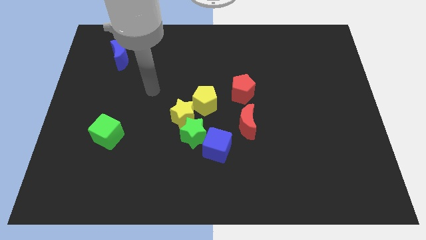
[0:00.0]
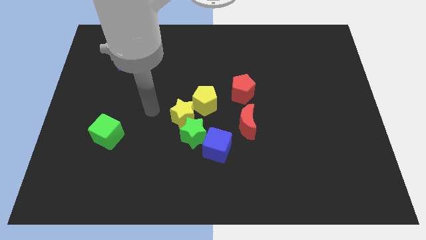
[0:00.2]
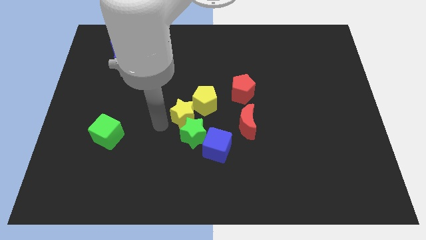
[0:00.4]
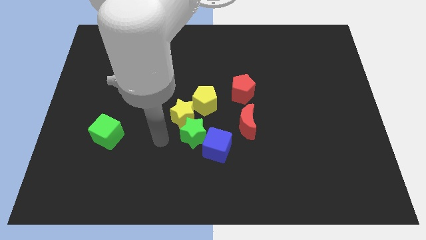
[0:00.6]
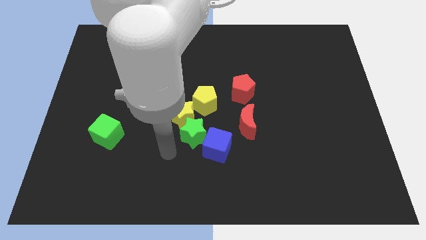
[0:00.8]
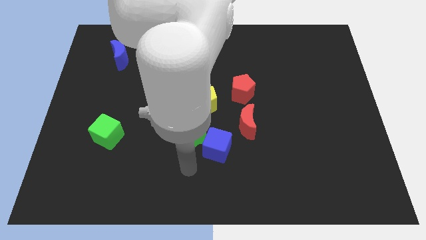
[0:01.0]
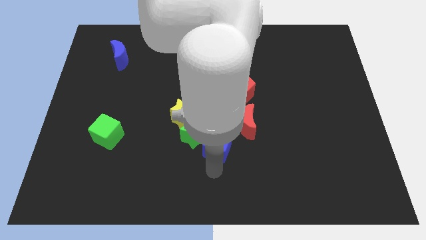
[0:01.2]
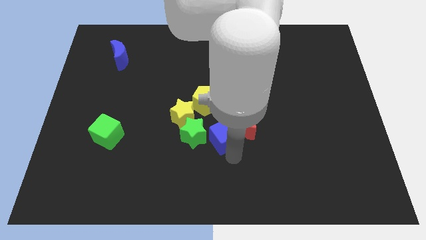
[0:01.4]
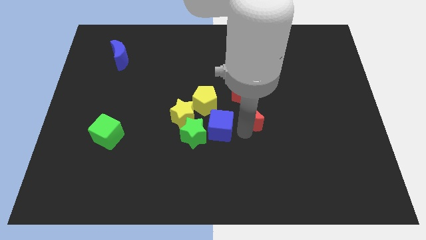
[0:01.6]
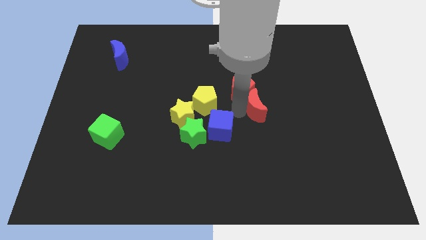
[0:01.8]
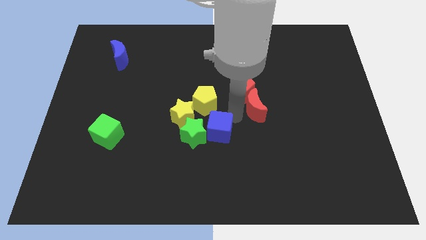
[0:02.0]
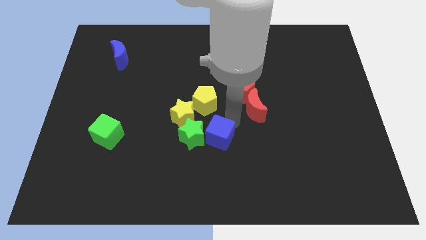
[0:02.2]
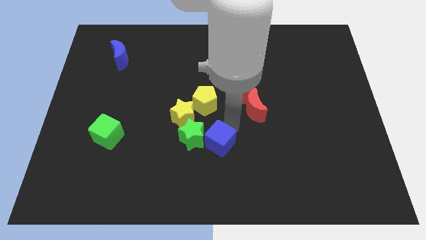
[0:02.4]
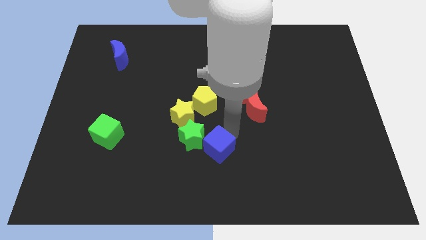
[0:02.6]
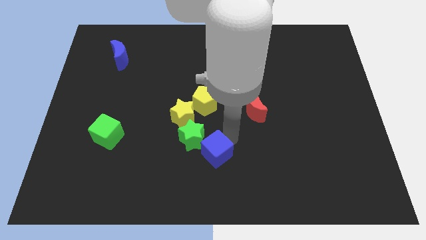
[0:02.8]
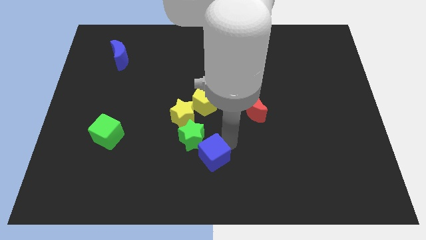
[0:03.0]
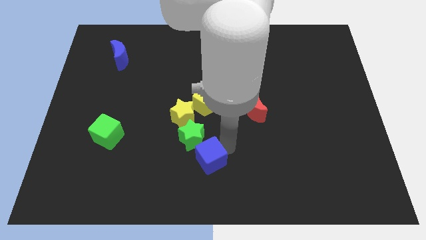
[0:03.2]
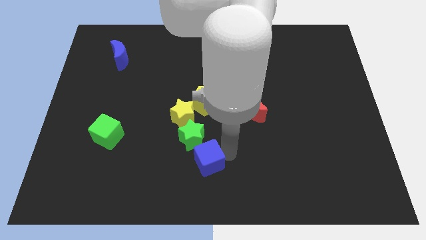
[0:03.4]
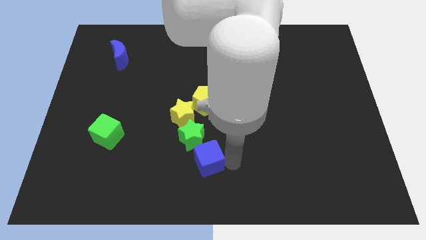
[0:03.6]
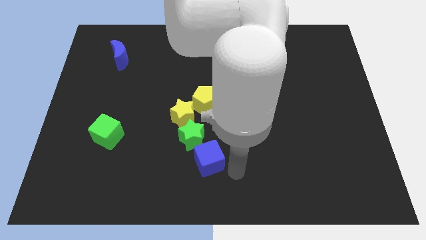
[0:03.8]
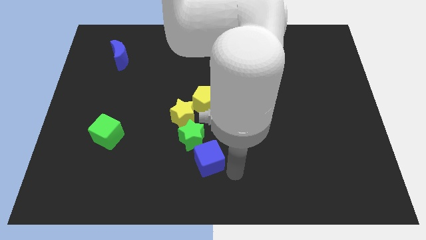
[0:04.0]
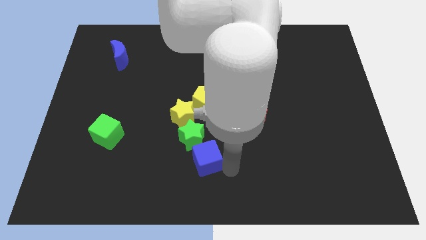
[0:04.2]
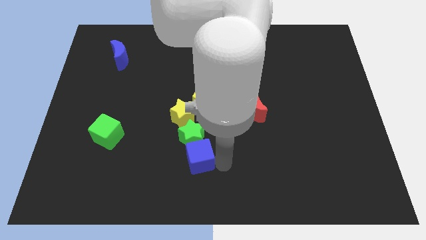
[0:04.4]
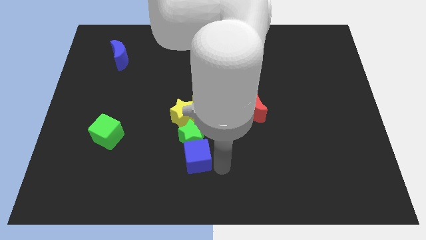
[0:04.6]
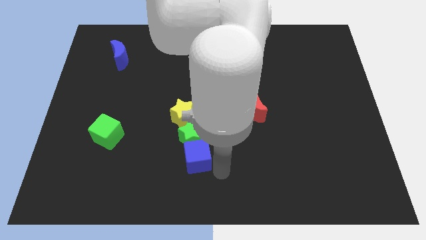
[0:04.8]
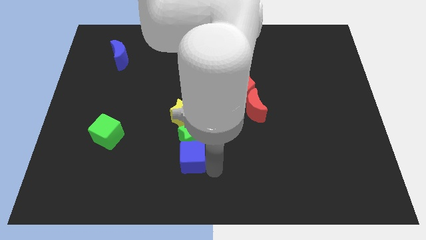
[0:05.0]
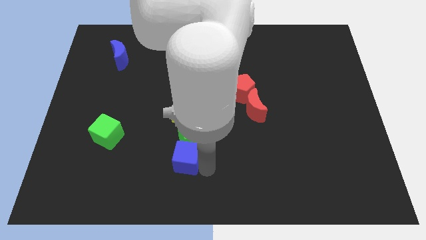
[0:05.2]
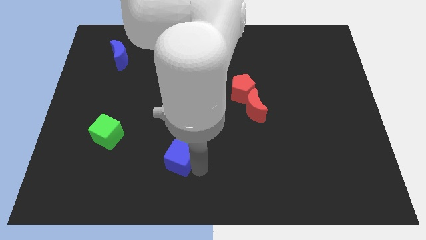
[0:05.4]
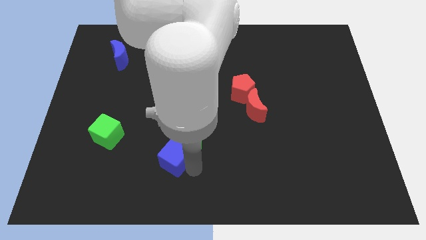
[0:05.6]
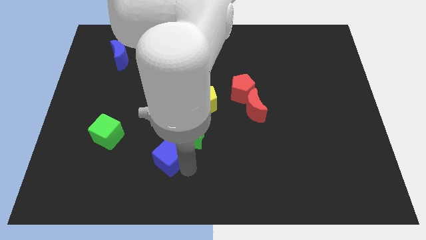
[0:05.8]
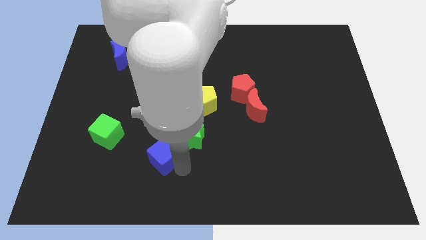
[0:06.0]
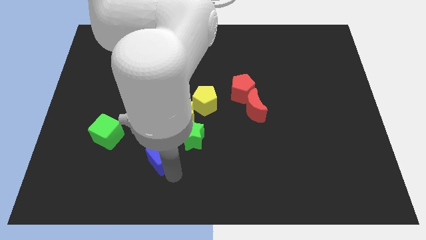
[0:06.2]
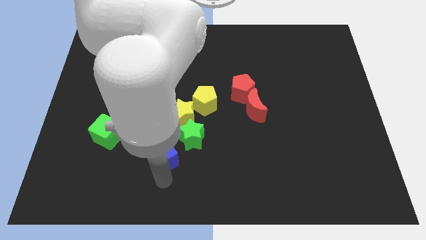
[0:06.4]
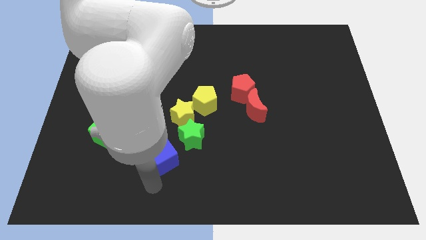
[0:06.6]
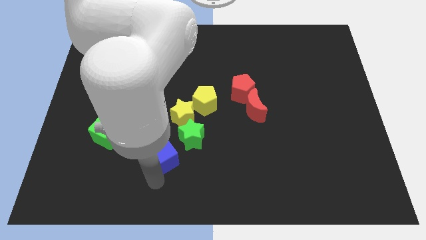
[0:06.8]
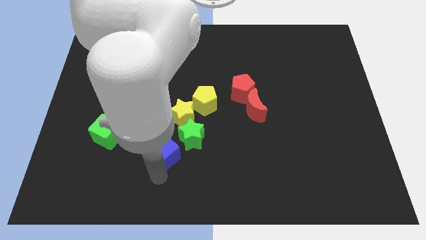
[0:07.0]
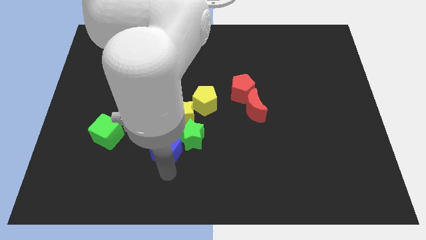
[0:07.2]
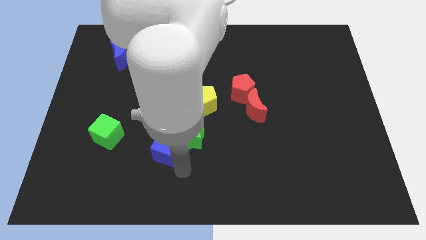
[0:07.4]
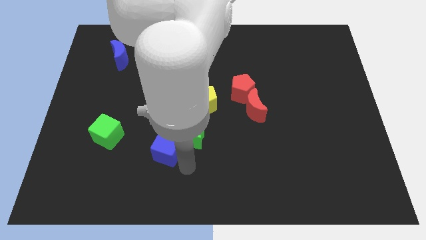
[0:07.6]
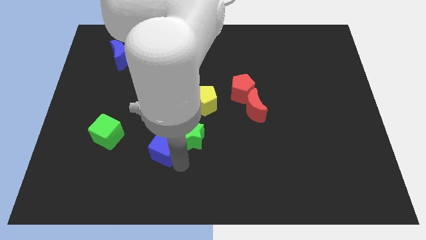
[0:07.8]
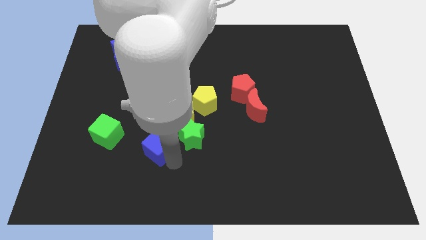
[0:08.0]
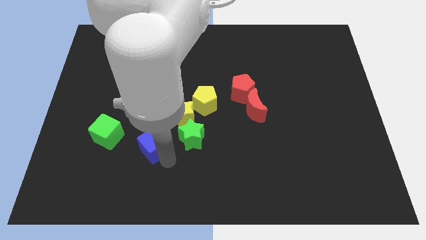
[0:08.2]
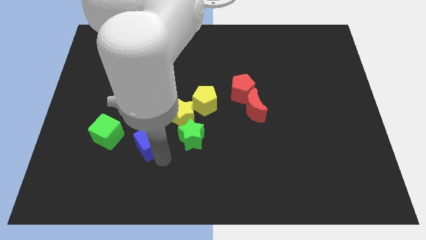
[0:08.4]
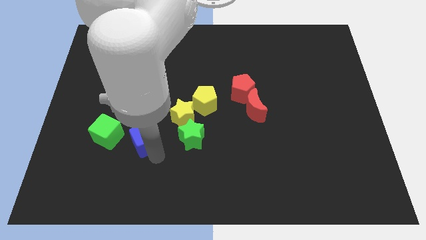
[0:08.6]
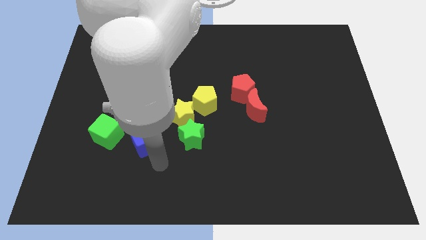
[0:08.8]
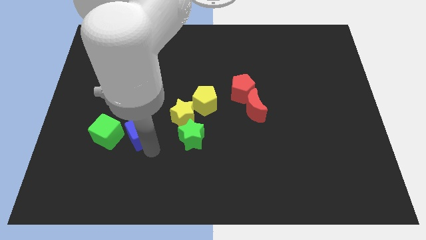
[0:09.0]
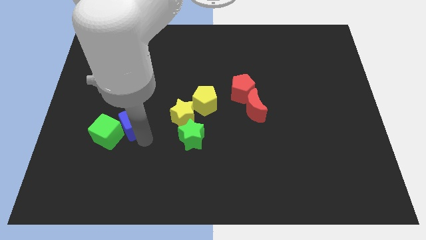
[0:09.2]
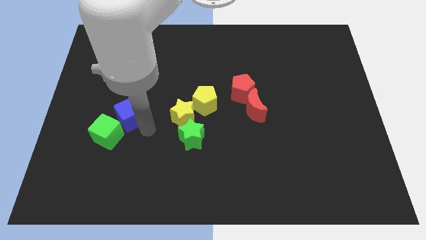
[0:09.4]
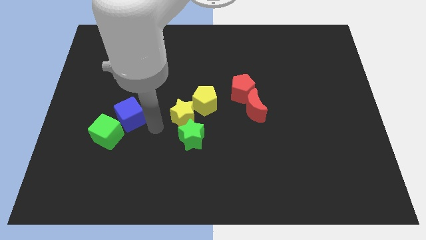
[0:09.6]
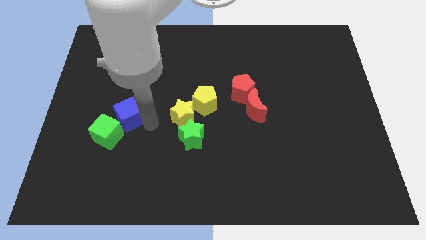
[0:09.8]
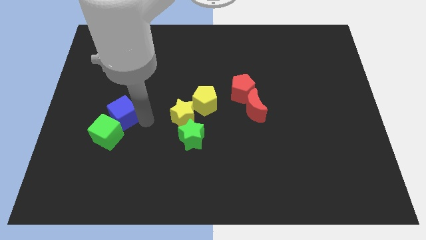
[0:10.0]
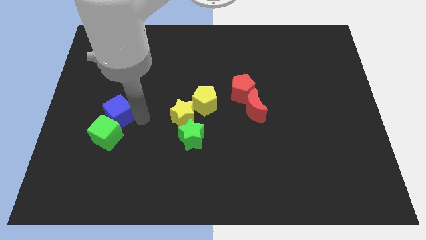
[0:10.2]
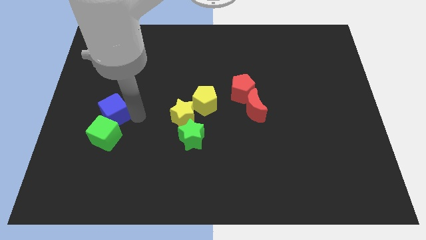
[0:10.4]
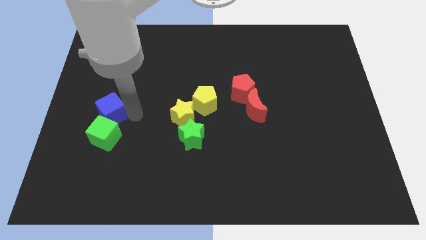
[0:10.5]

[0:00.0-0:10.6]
move the blue cube to the top left of the green cube

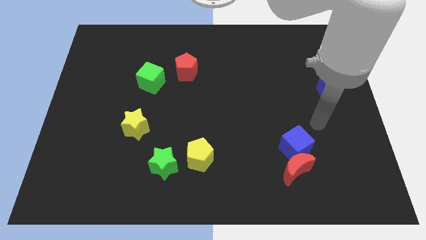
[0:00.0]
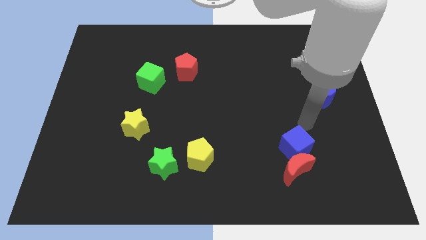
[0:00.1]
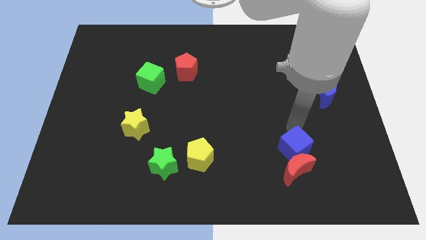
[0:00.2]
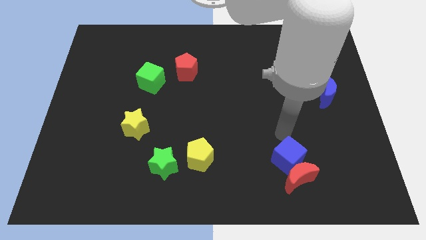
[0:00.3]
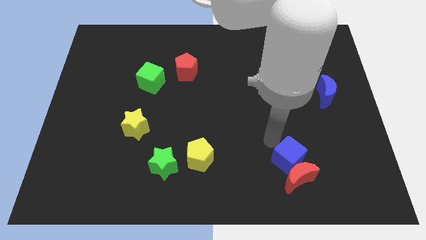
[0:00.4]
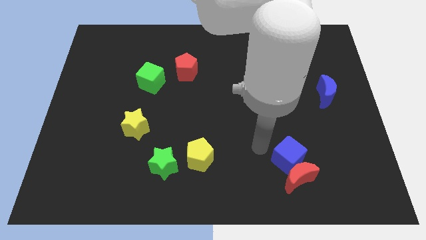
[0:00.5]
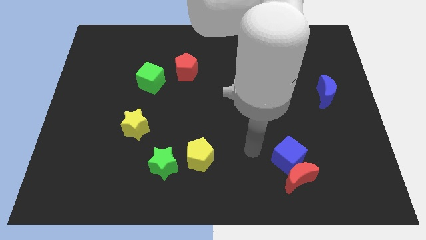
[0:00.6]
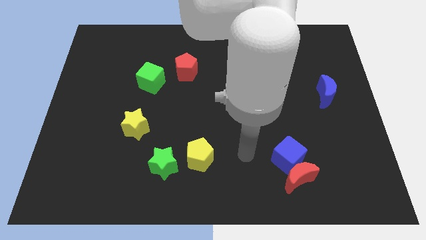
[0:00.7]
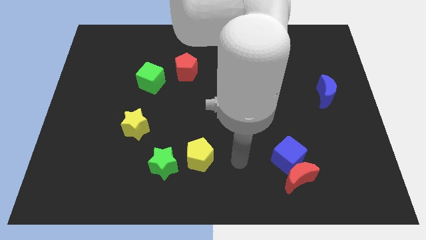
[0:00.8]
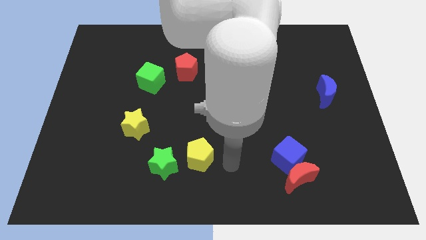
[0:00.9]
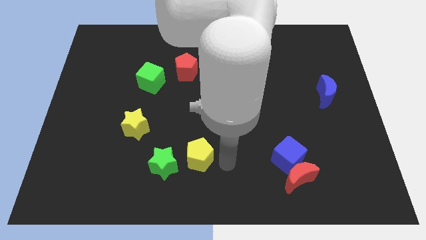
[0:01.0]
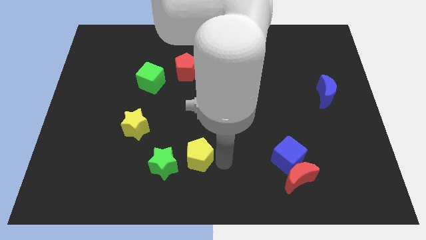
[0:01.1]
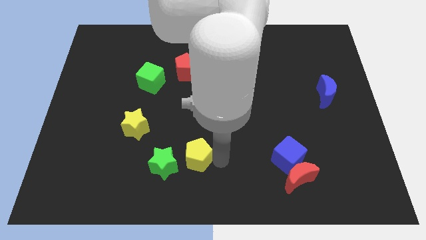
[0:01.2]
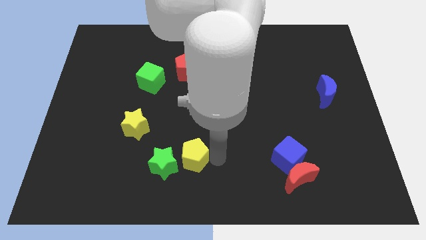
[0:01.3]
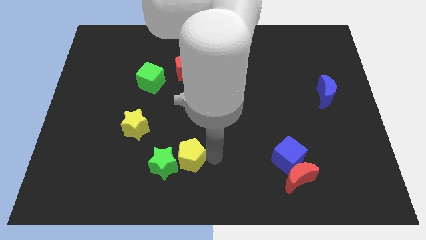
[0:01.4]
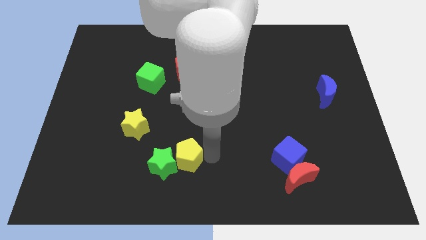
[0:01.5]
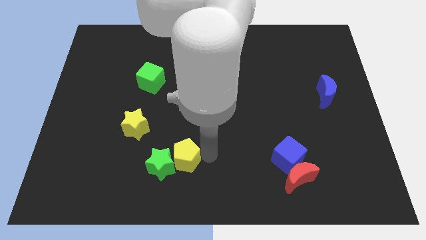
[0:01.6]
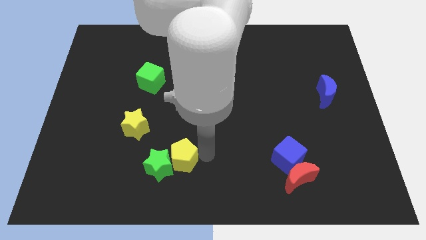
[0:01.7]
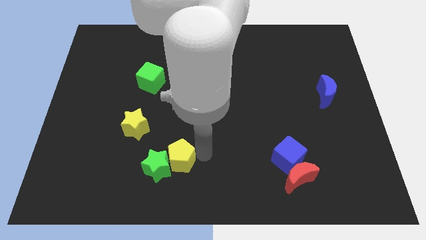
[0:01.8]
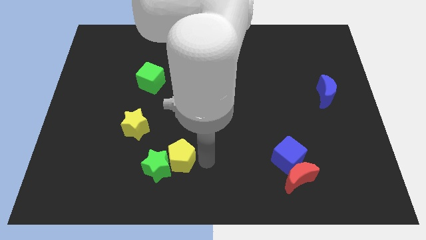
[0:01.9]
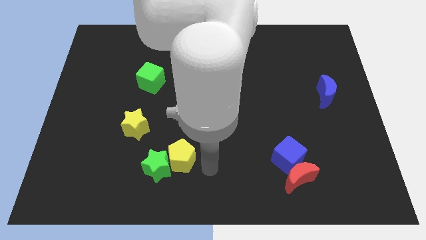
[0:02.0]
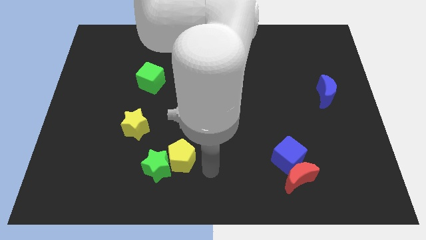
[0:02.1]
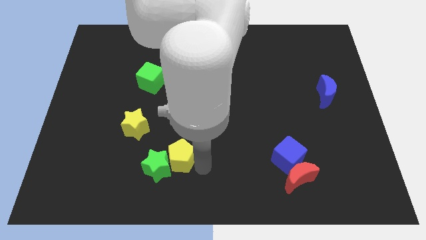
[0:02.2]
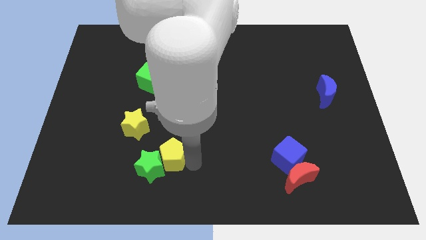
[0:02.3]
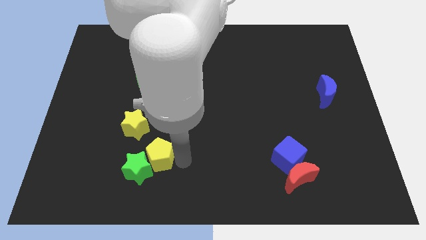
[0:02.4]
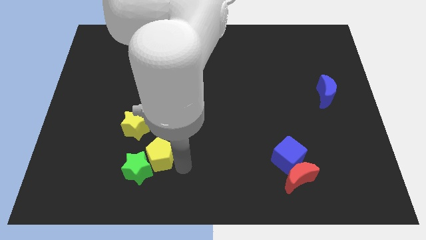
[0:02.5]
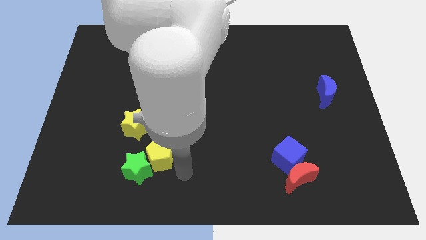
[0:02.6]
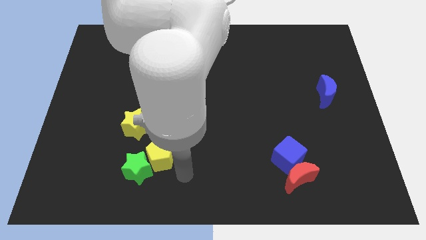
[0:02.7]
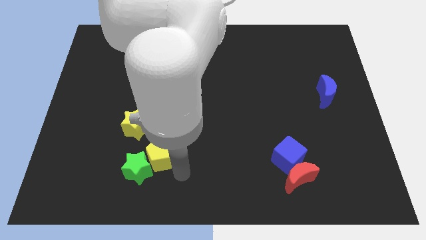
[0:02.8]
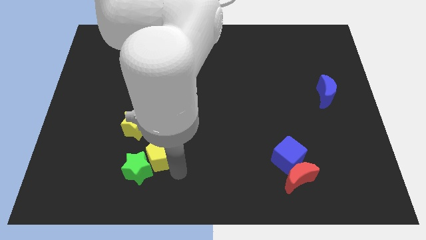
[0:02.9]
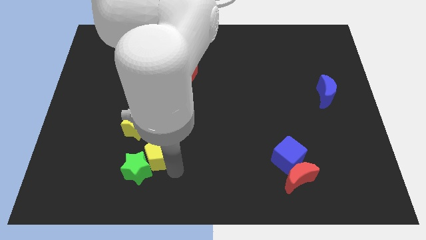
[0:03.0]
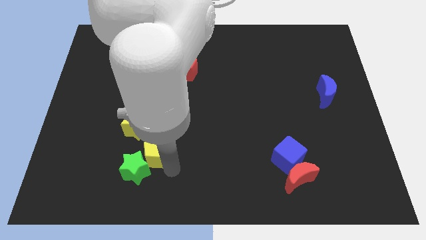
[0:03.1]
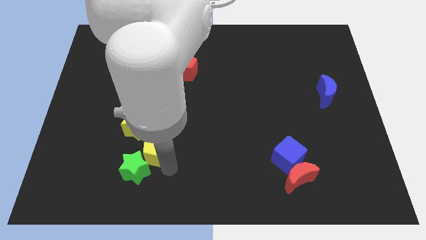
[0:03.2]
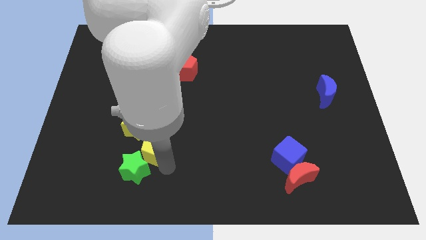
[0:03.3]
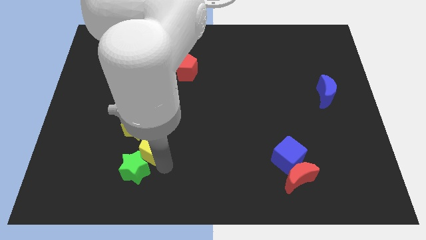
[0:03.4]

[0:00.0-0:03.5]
move the yellow pentagon to the bottom of the yellow star
